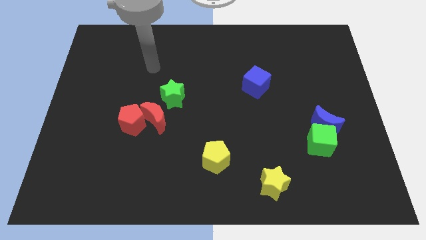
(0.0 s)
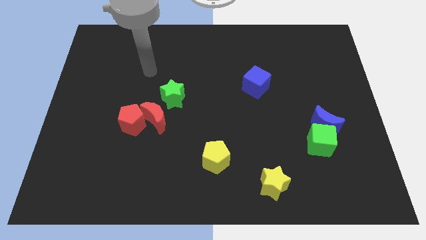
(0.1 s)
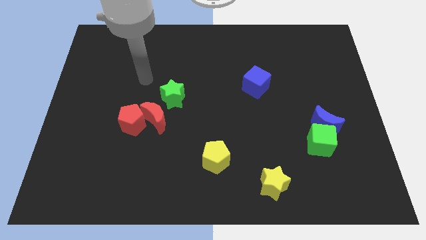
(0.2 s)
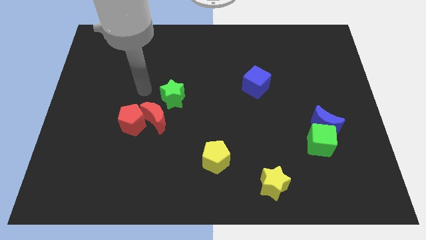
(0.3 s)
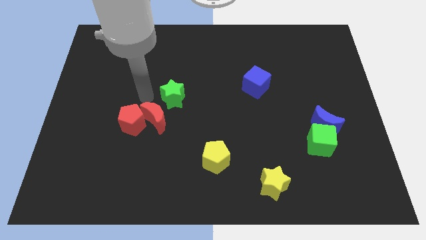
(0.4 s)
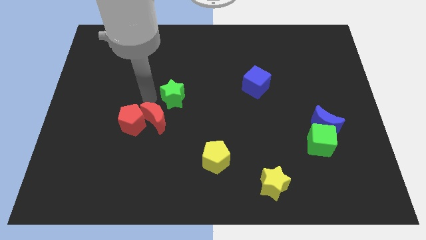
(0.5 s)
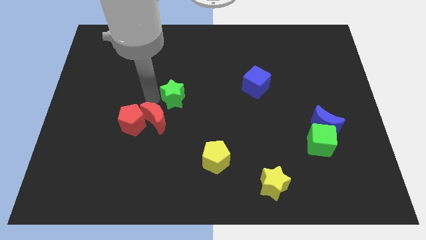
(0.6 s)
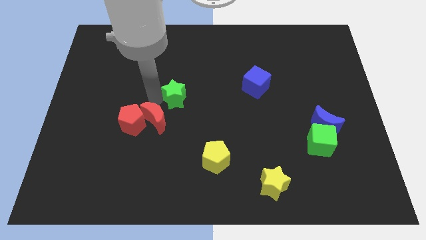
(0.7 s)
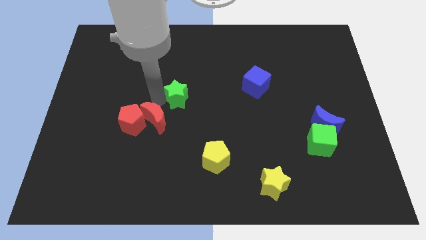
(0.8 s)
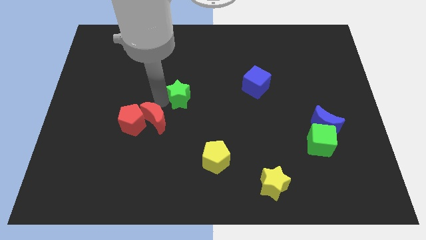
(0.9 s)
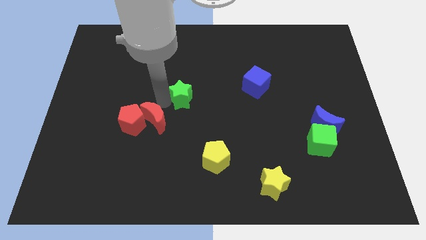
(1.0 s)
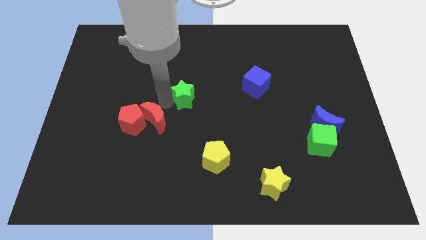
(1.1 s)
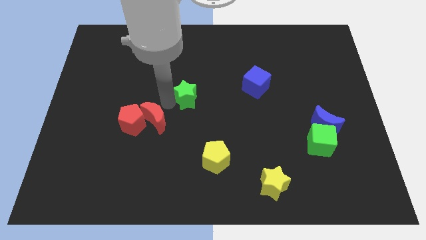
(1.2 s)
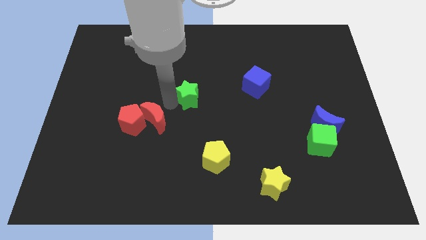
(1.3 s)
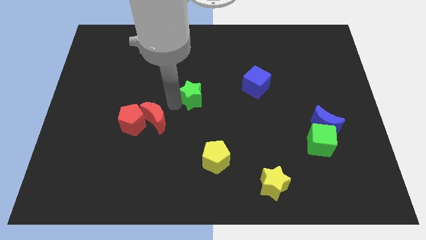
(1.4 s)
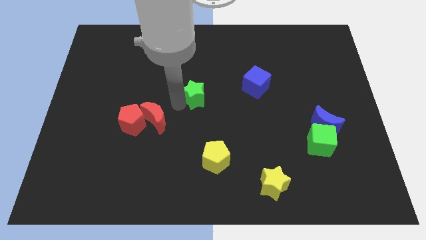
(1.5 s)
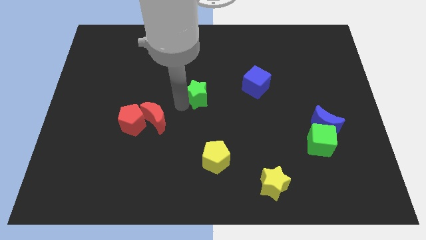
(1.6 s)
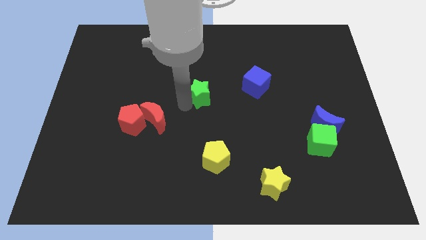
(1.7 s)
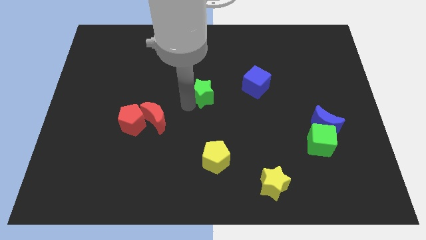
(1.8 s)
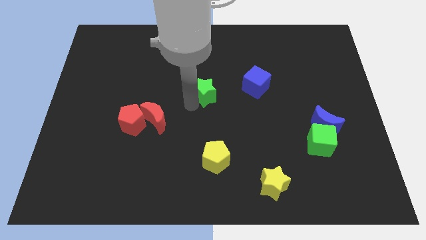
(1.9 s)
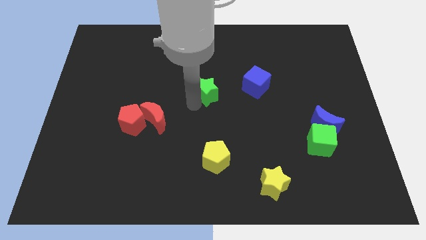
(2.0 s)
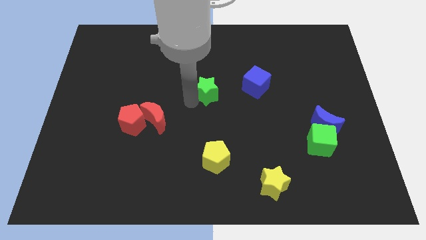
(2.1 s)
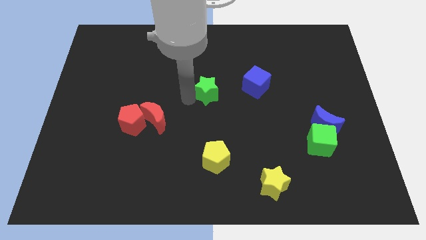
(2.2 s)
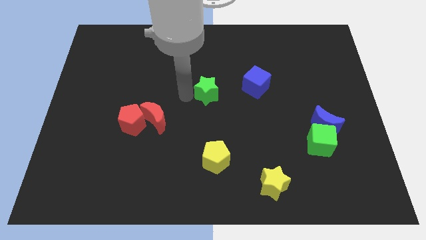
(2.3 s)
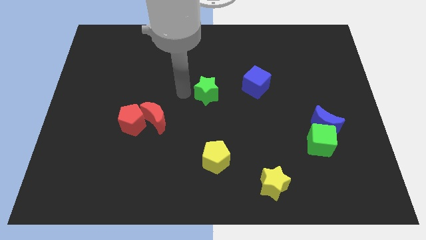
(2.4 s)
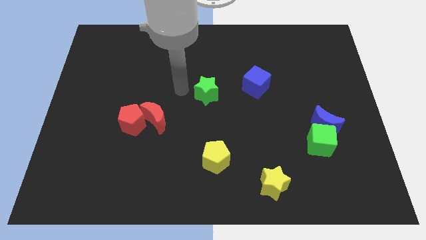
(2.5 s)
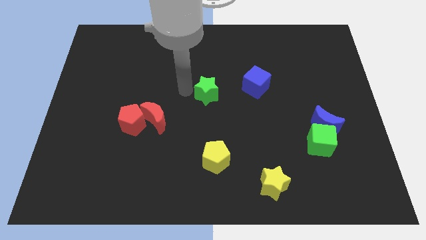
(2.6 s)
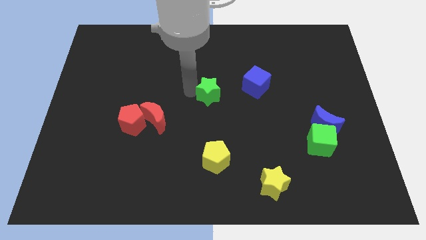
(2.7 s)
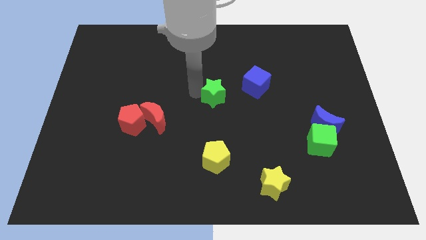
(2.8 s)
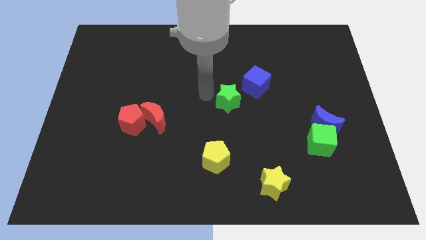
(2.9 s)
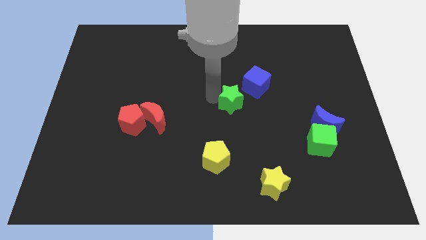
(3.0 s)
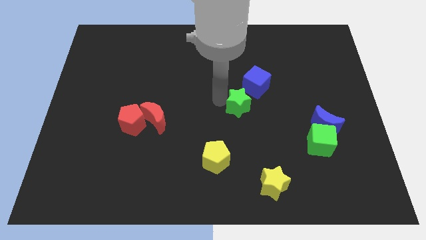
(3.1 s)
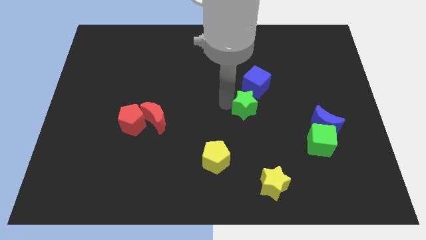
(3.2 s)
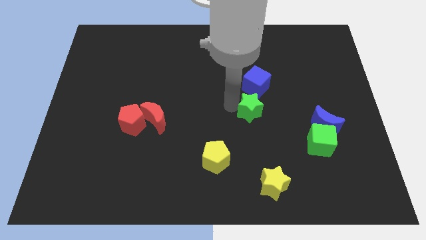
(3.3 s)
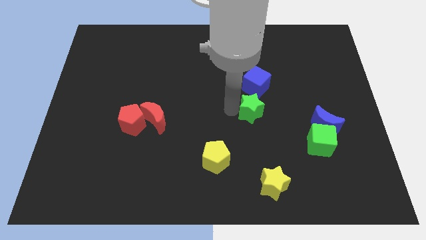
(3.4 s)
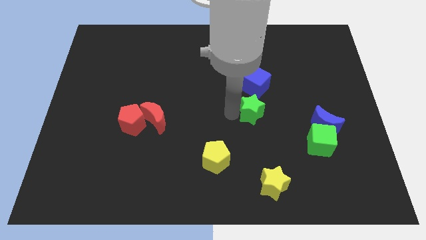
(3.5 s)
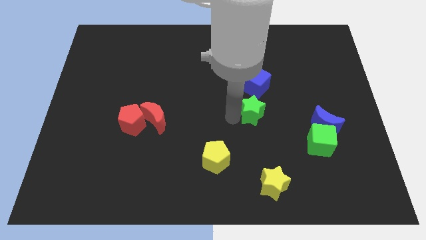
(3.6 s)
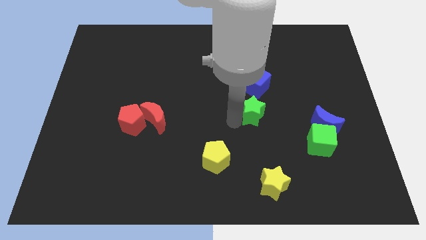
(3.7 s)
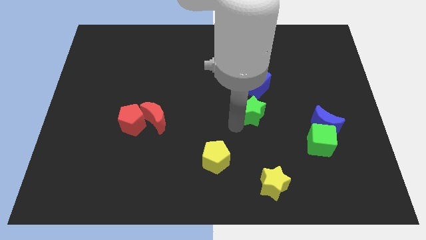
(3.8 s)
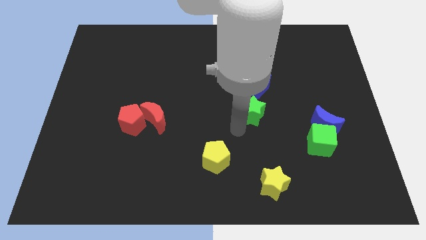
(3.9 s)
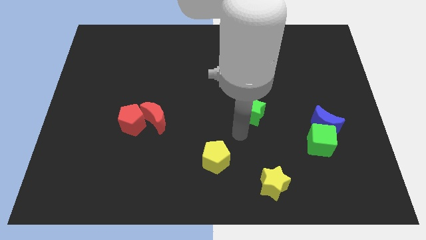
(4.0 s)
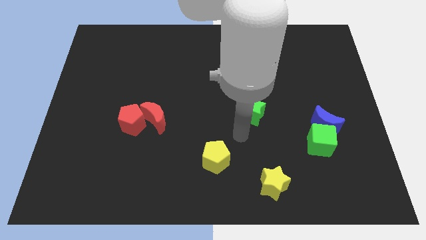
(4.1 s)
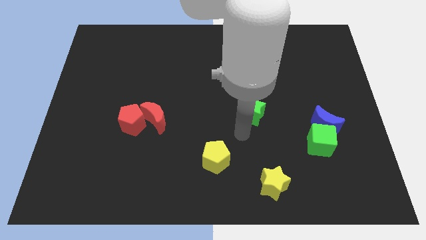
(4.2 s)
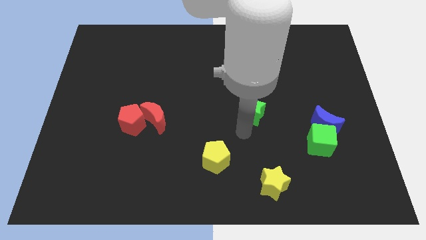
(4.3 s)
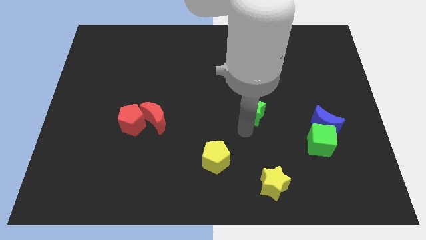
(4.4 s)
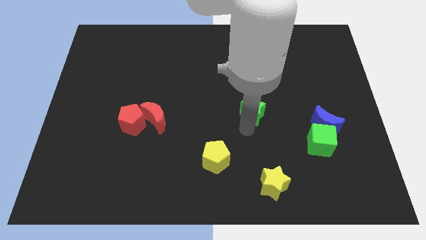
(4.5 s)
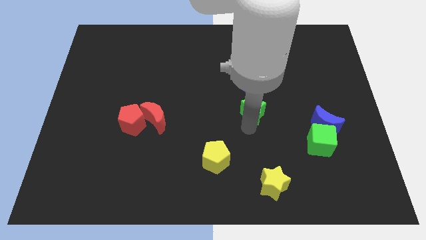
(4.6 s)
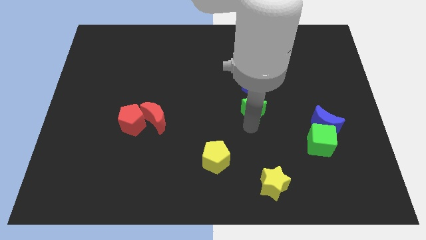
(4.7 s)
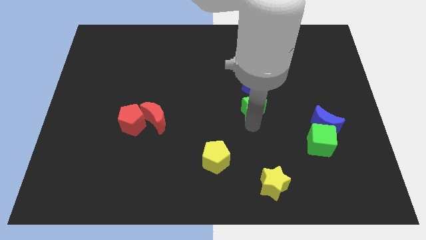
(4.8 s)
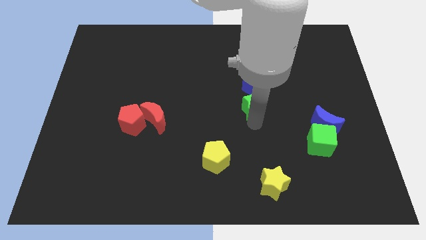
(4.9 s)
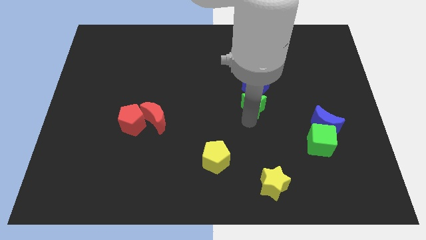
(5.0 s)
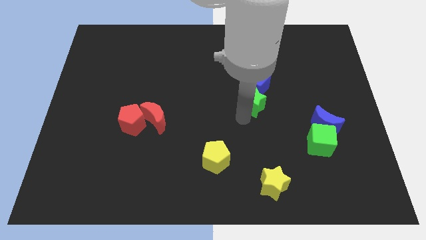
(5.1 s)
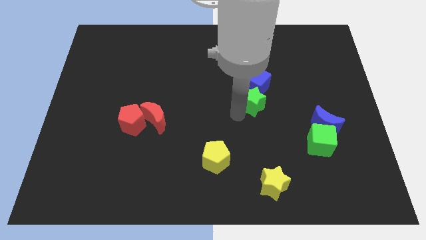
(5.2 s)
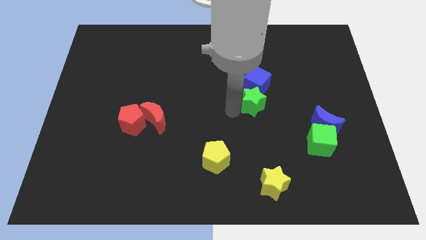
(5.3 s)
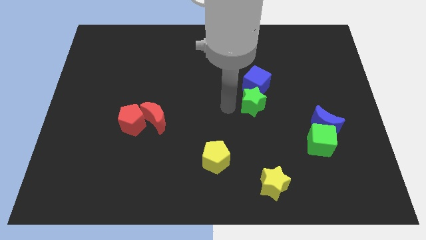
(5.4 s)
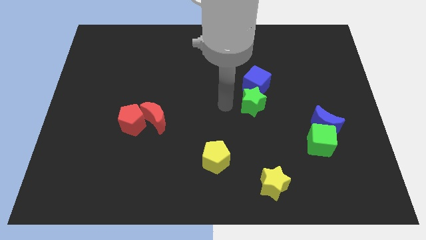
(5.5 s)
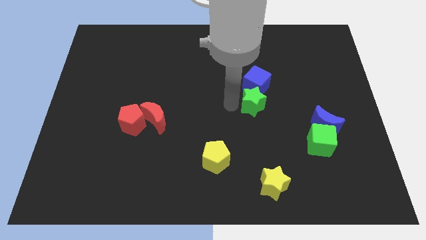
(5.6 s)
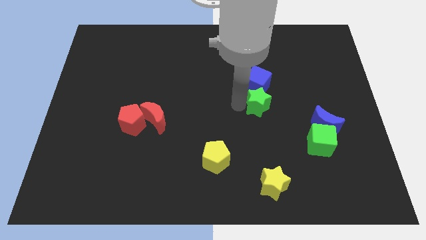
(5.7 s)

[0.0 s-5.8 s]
push the green star to the right

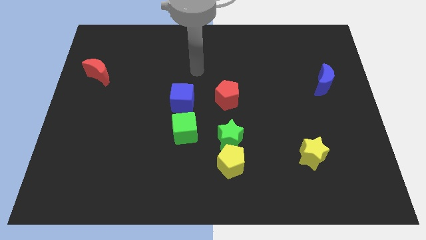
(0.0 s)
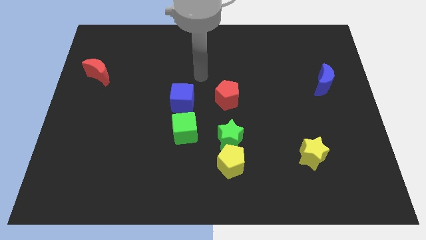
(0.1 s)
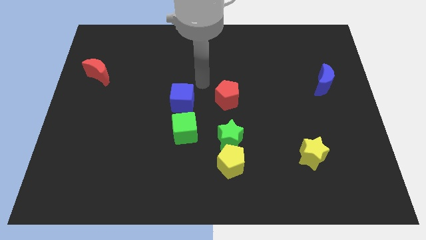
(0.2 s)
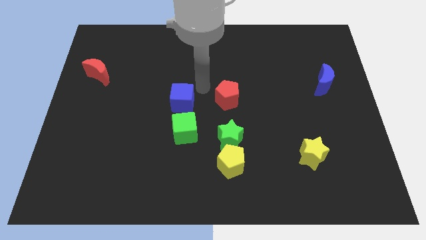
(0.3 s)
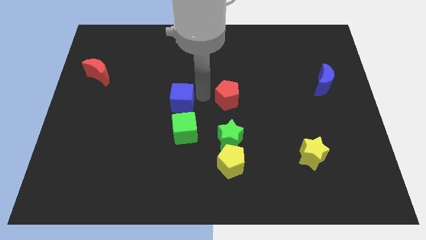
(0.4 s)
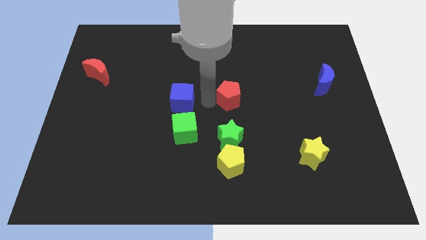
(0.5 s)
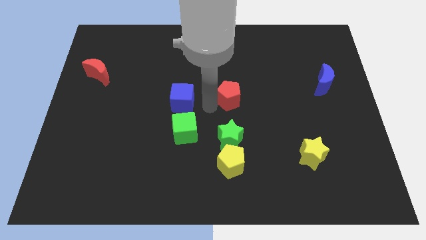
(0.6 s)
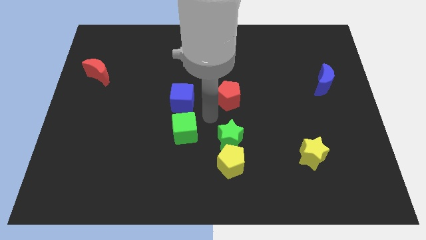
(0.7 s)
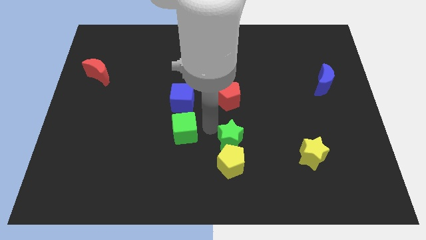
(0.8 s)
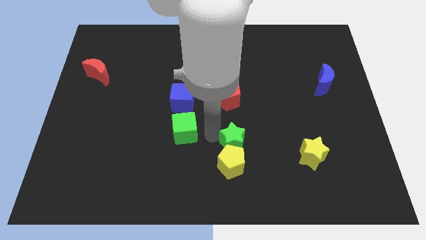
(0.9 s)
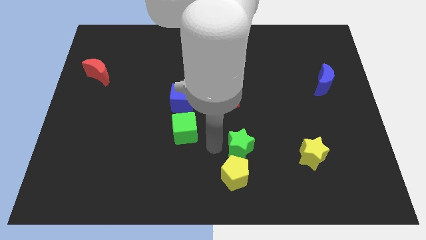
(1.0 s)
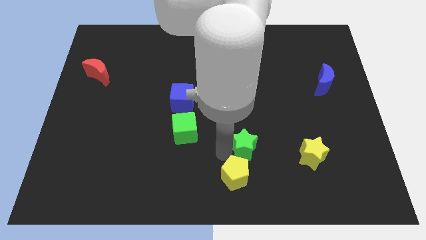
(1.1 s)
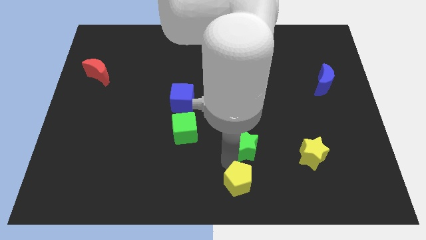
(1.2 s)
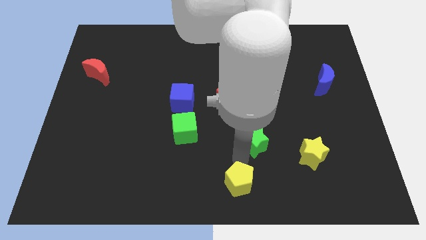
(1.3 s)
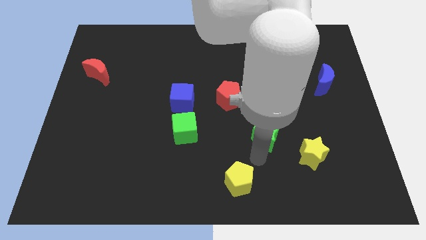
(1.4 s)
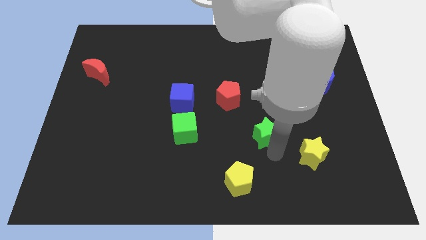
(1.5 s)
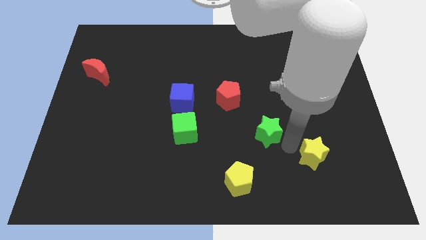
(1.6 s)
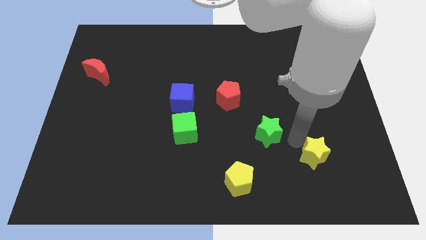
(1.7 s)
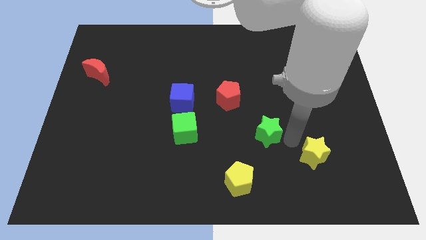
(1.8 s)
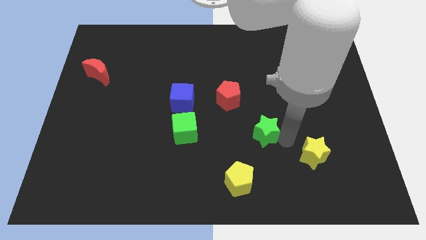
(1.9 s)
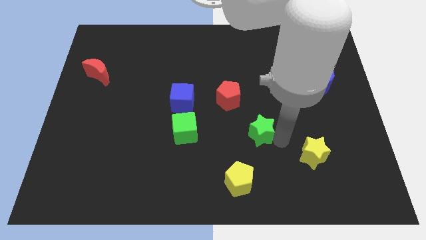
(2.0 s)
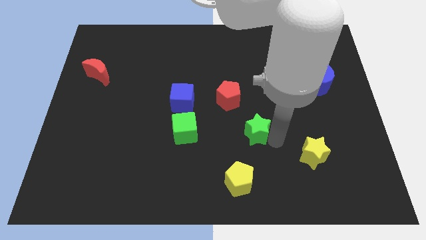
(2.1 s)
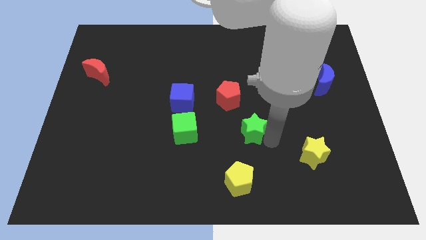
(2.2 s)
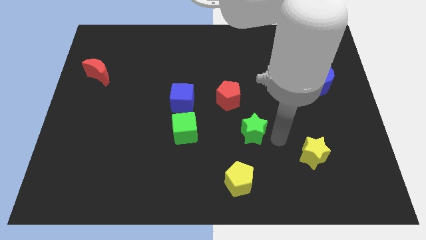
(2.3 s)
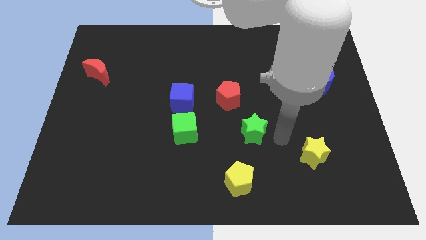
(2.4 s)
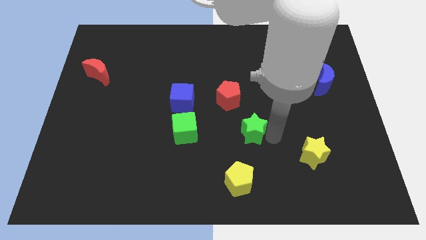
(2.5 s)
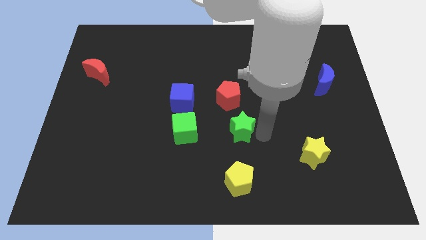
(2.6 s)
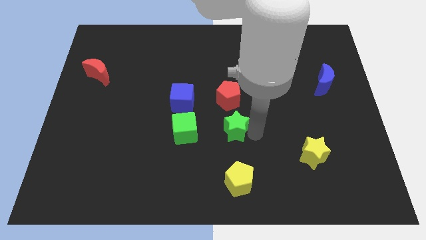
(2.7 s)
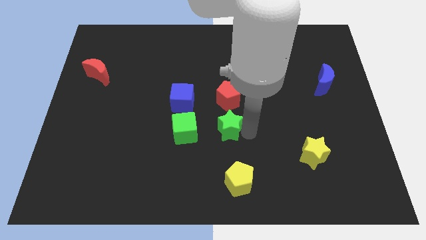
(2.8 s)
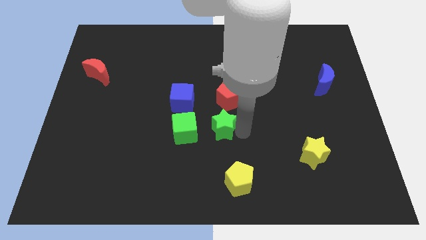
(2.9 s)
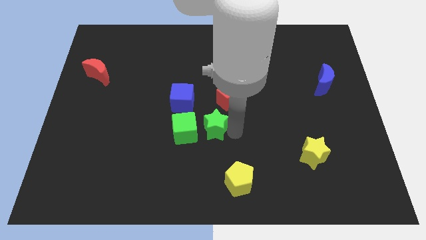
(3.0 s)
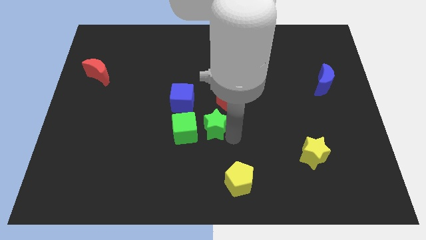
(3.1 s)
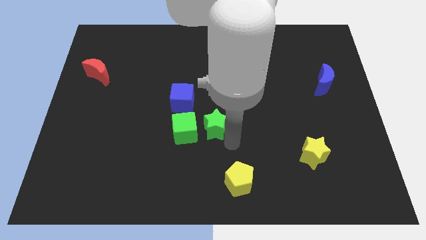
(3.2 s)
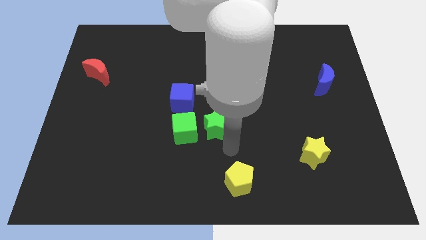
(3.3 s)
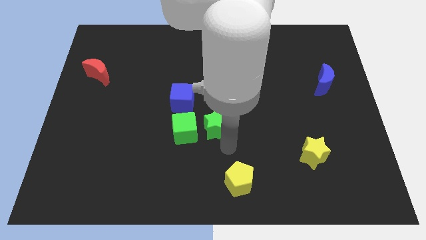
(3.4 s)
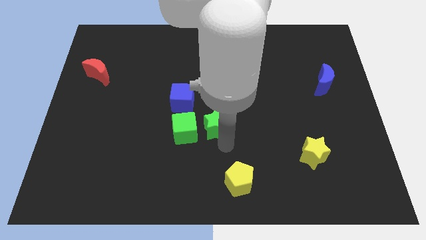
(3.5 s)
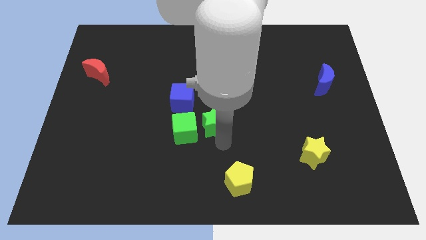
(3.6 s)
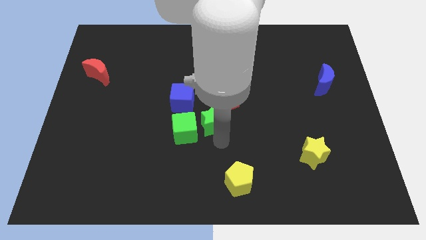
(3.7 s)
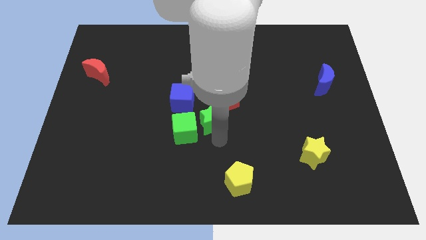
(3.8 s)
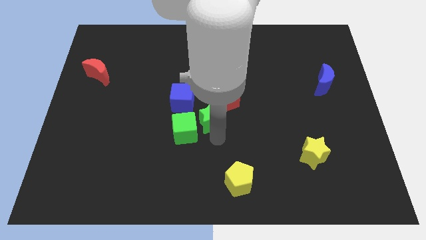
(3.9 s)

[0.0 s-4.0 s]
slide the green star up and to the left somewhat
